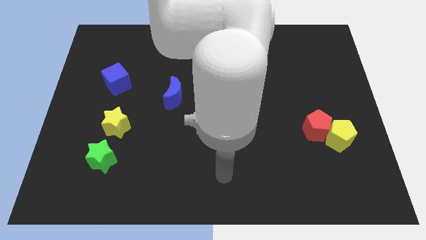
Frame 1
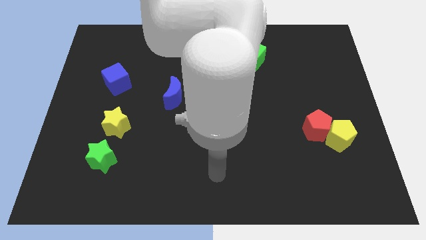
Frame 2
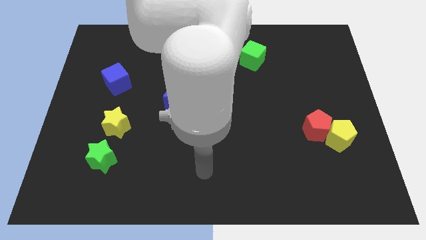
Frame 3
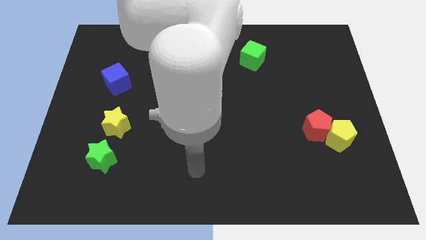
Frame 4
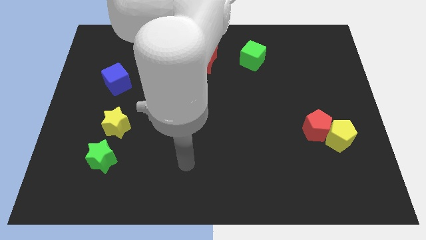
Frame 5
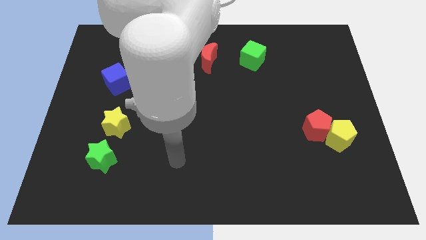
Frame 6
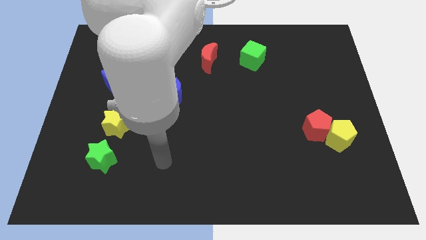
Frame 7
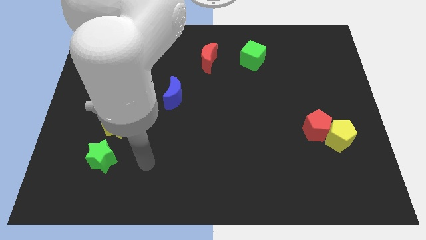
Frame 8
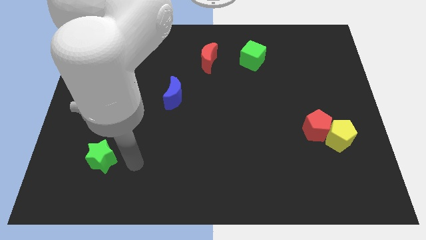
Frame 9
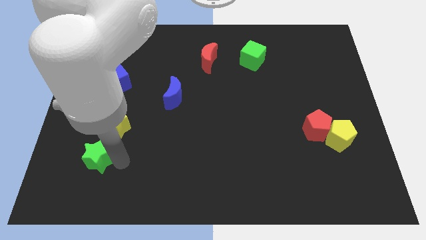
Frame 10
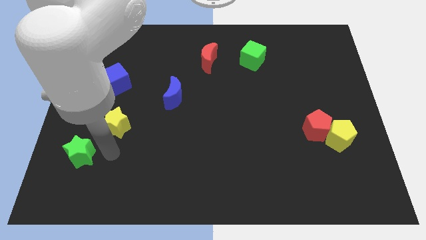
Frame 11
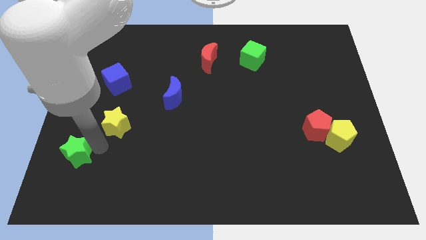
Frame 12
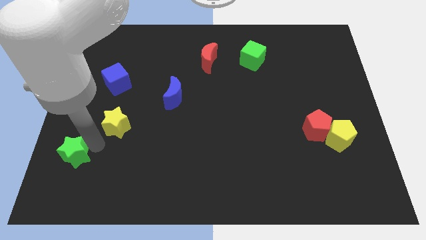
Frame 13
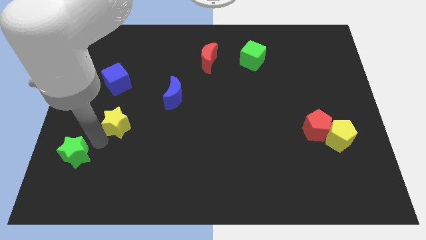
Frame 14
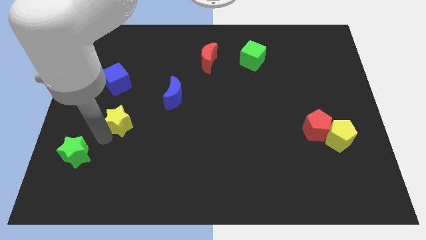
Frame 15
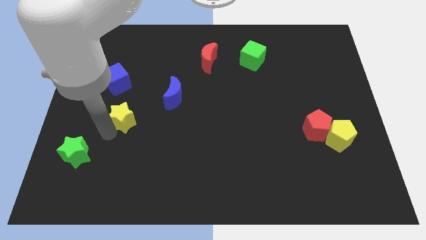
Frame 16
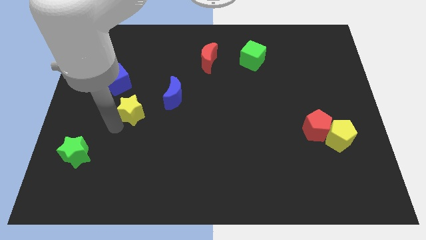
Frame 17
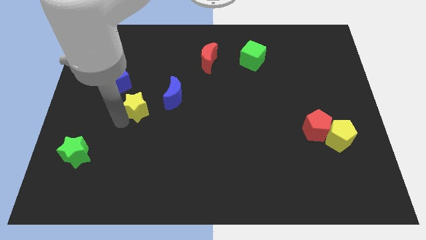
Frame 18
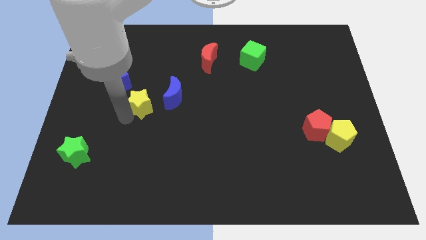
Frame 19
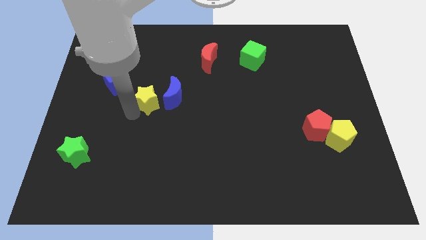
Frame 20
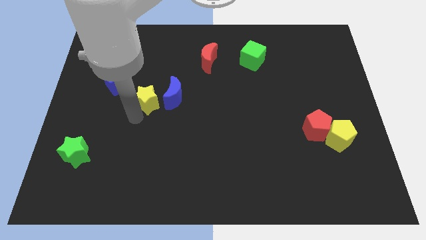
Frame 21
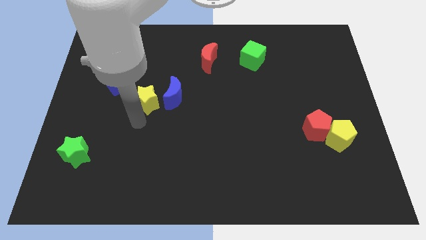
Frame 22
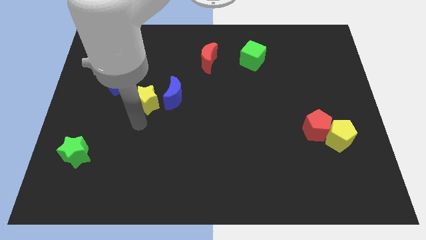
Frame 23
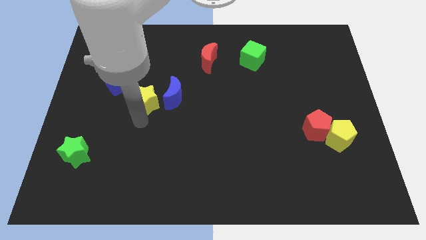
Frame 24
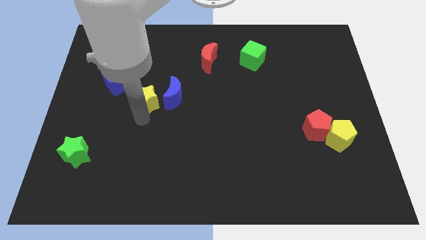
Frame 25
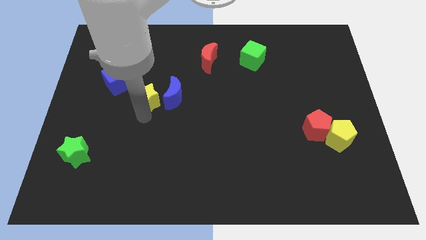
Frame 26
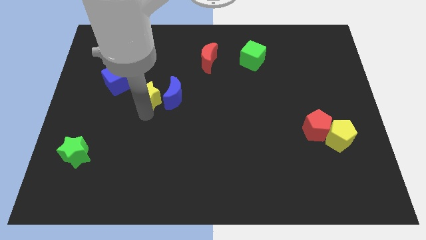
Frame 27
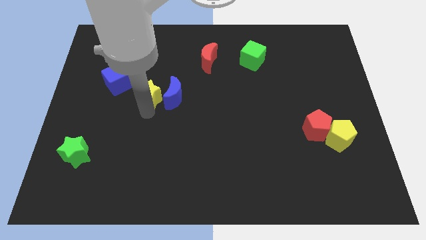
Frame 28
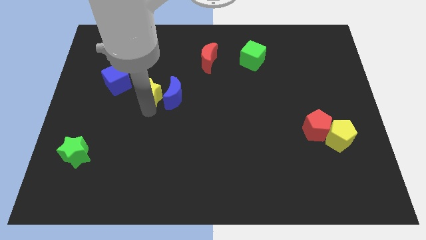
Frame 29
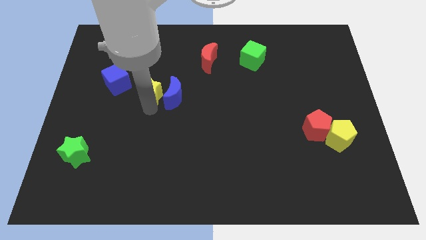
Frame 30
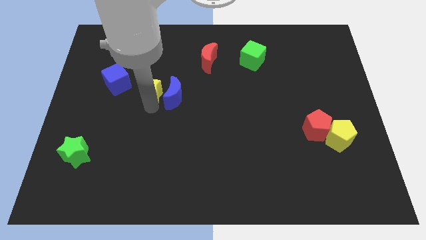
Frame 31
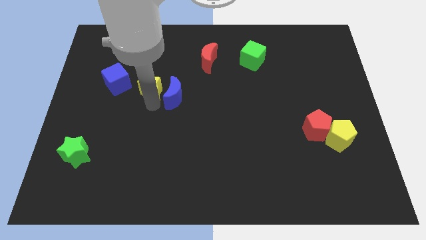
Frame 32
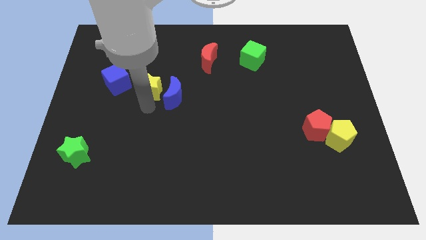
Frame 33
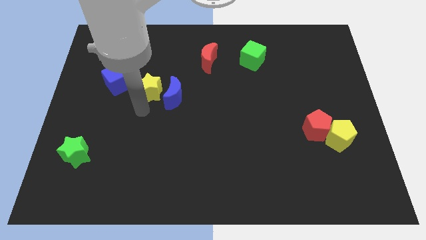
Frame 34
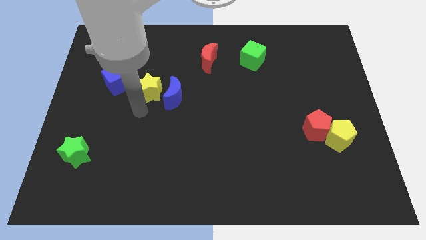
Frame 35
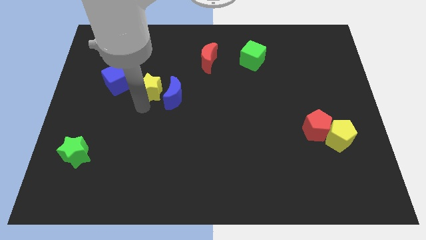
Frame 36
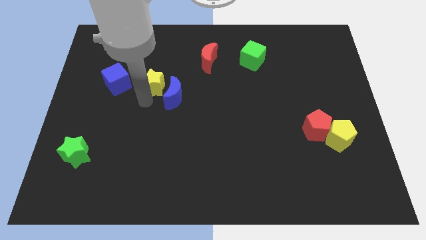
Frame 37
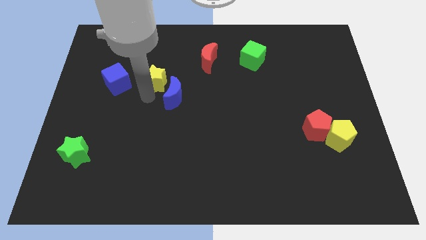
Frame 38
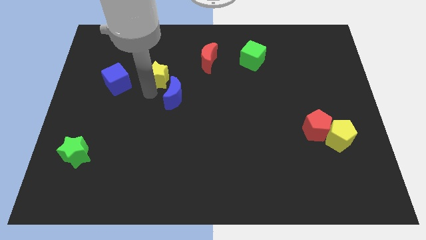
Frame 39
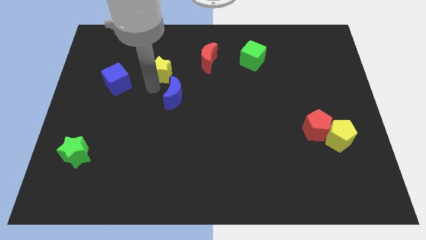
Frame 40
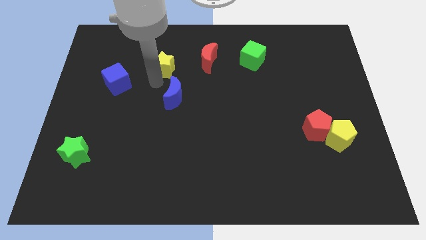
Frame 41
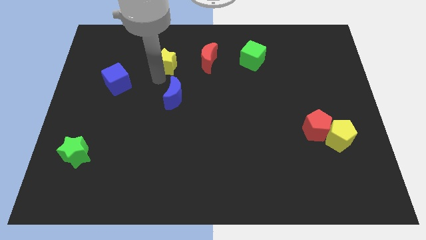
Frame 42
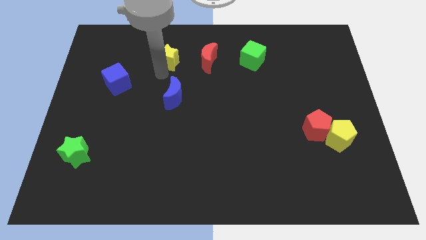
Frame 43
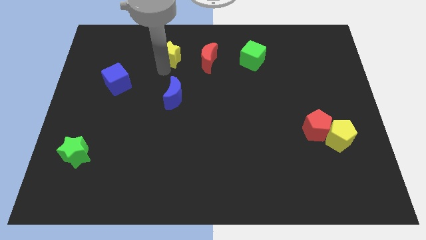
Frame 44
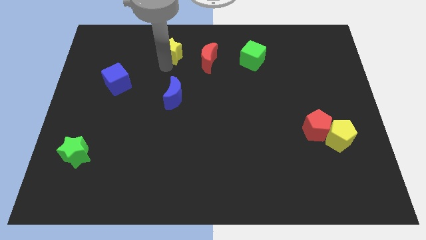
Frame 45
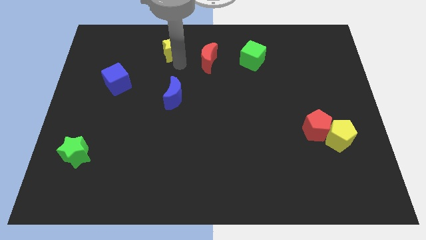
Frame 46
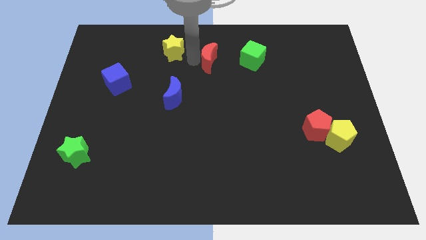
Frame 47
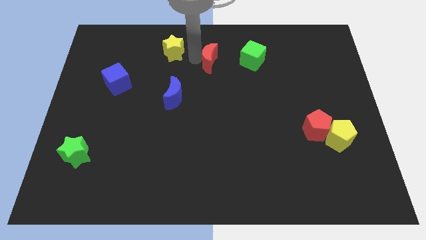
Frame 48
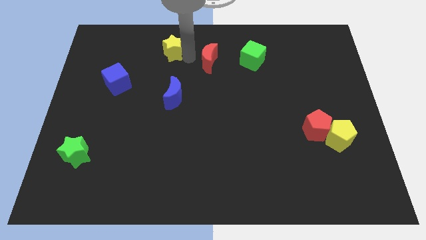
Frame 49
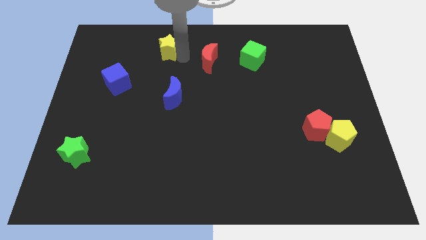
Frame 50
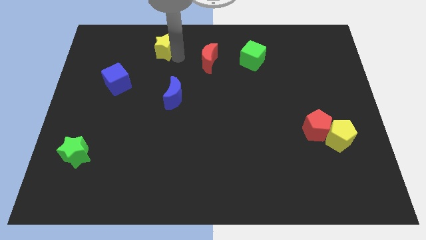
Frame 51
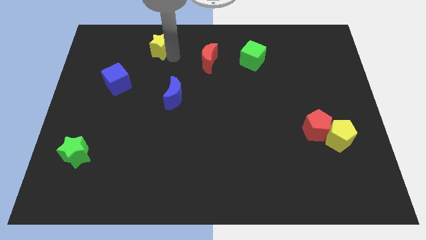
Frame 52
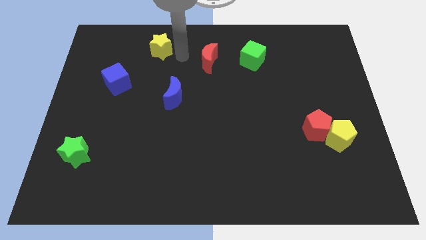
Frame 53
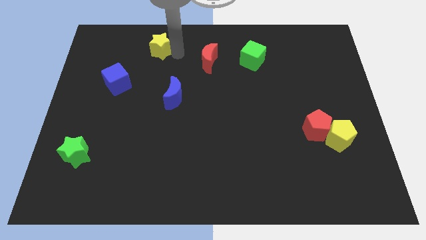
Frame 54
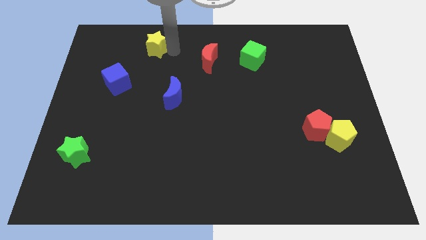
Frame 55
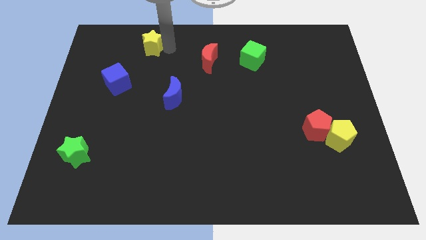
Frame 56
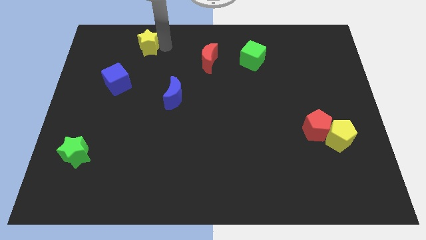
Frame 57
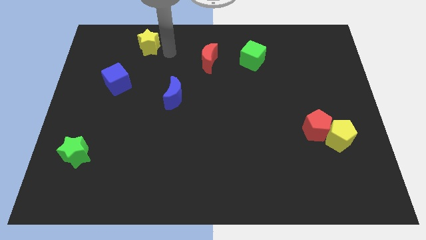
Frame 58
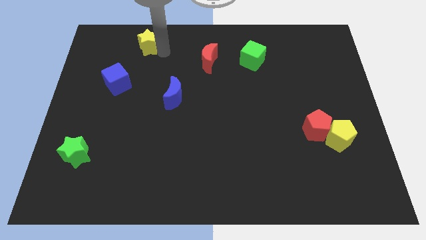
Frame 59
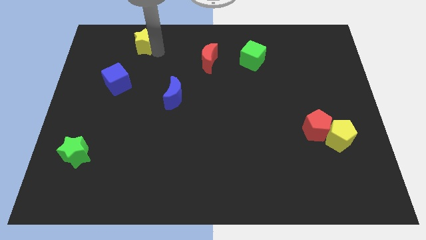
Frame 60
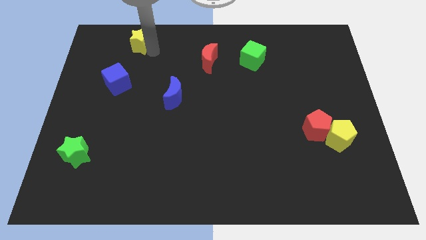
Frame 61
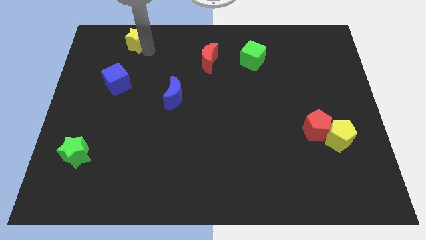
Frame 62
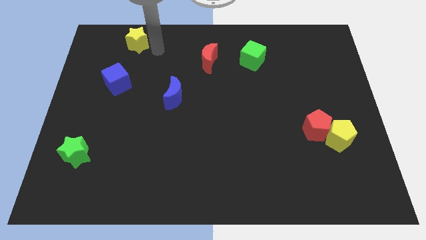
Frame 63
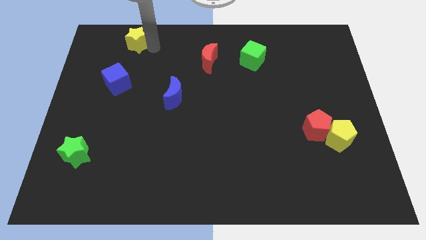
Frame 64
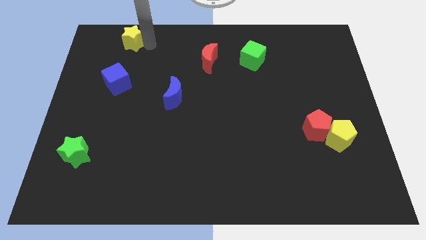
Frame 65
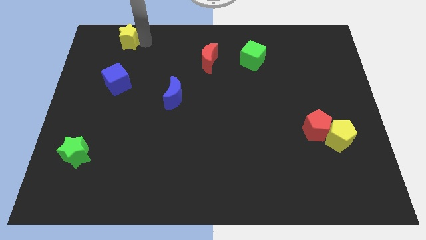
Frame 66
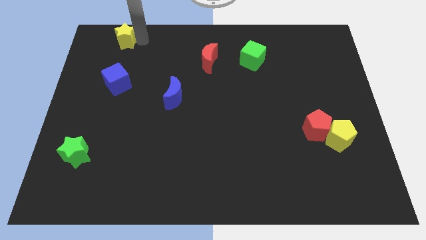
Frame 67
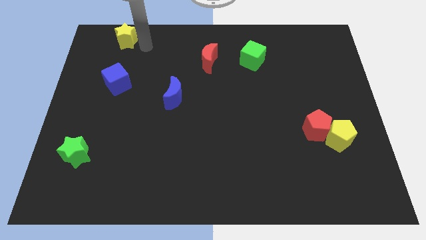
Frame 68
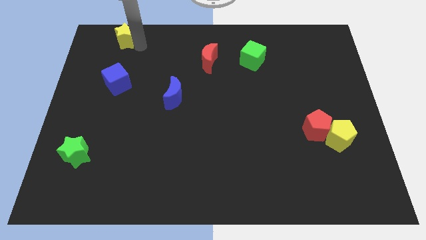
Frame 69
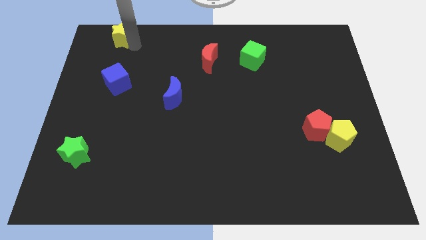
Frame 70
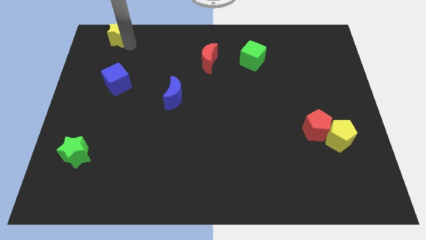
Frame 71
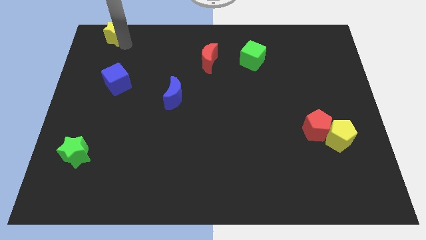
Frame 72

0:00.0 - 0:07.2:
push the yellow star to the top left corner
